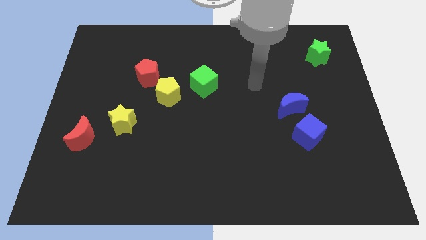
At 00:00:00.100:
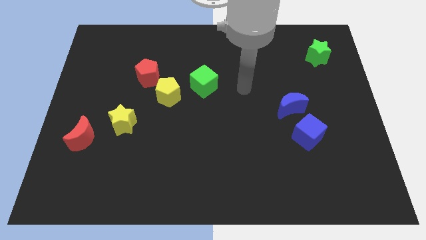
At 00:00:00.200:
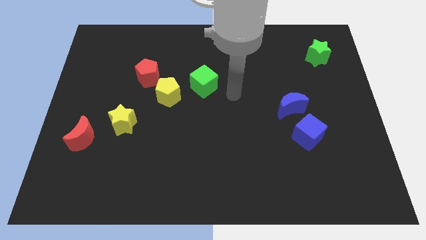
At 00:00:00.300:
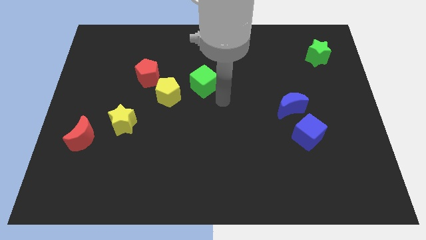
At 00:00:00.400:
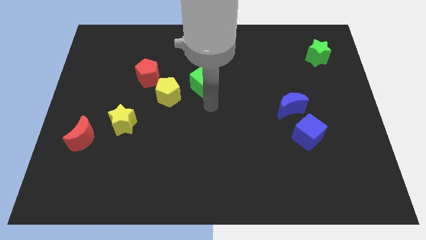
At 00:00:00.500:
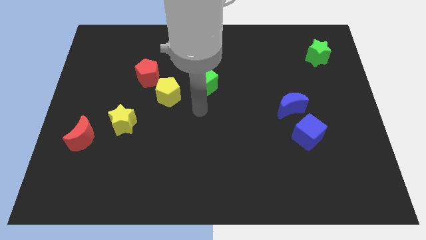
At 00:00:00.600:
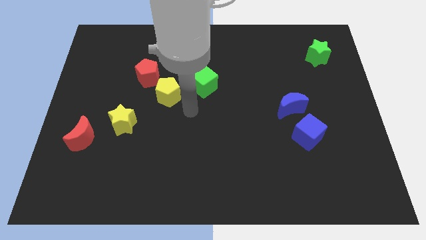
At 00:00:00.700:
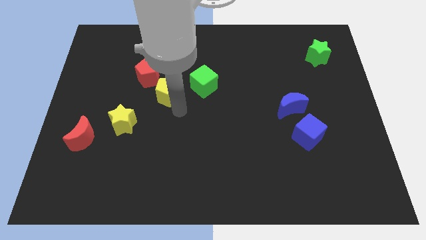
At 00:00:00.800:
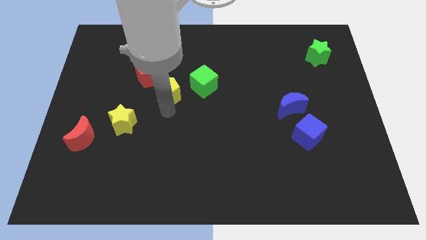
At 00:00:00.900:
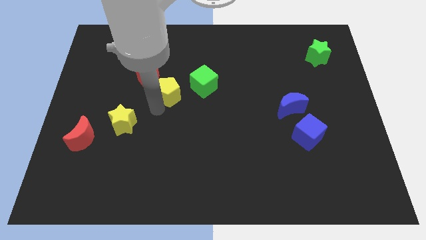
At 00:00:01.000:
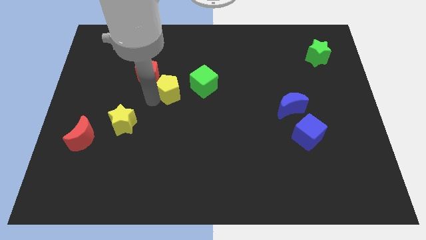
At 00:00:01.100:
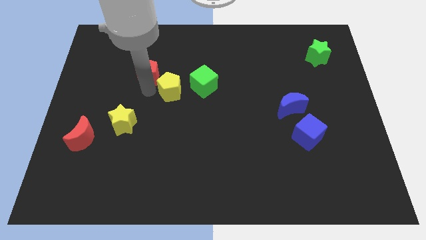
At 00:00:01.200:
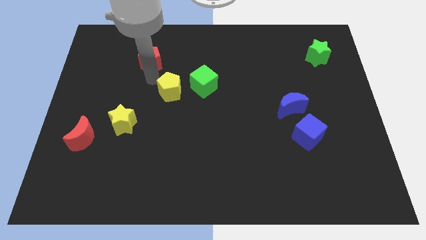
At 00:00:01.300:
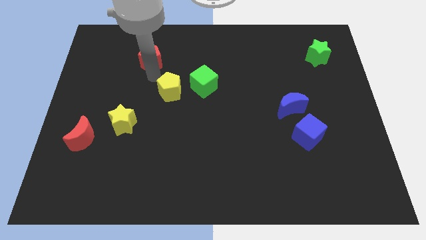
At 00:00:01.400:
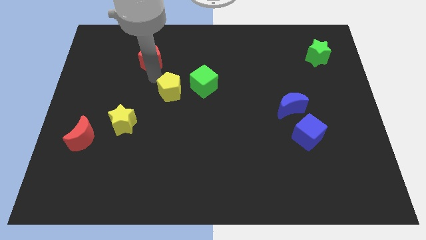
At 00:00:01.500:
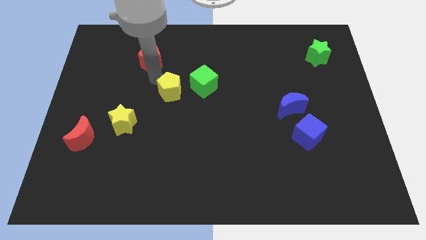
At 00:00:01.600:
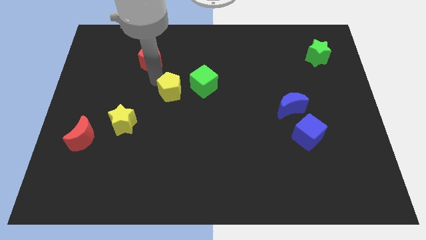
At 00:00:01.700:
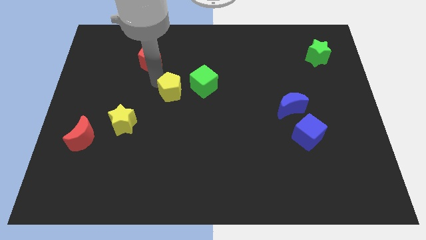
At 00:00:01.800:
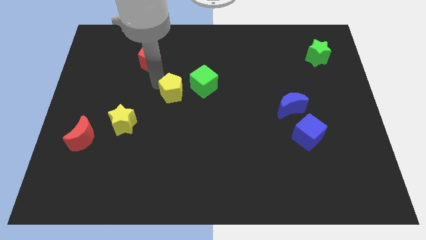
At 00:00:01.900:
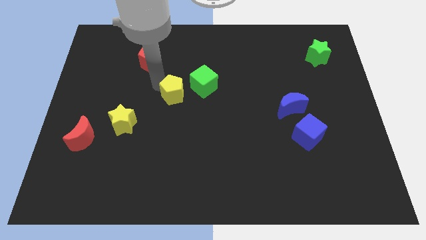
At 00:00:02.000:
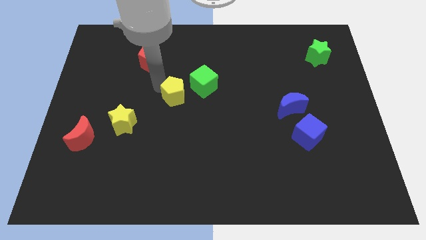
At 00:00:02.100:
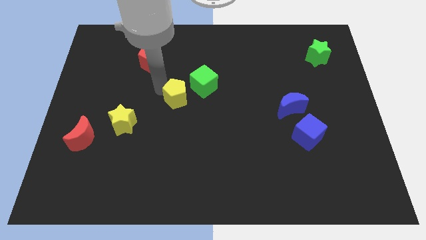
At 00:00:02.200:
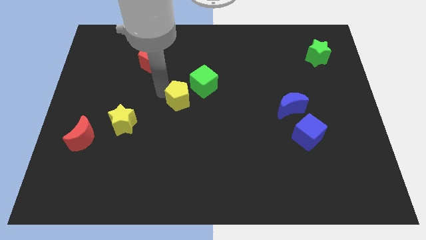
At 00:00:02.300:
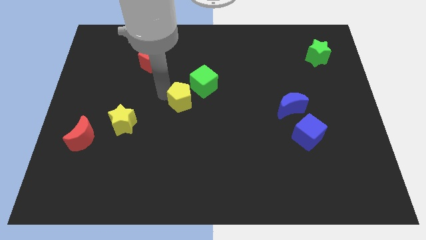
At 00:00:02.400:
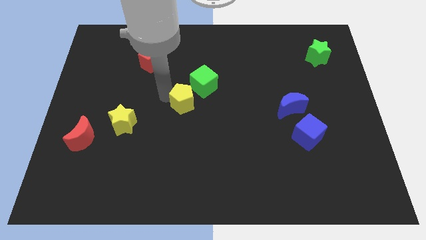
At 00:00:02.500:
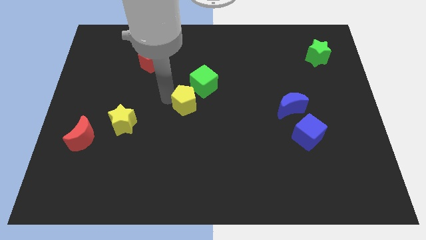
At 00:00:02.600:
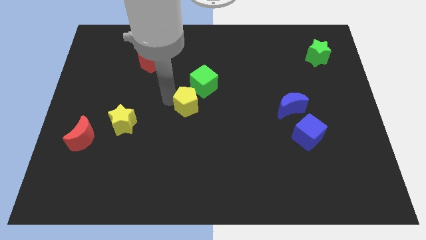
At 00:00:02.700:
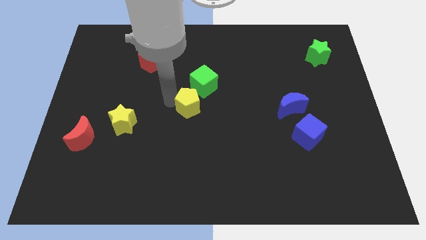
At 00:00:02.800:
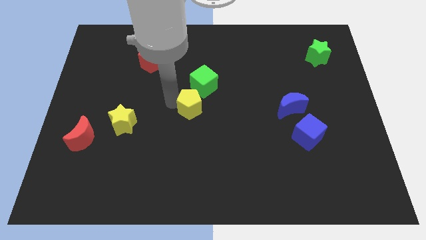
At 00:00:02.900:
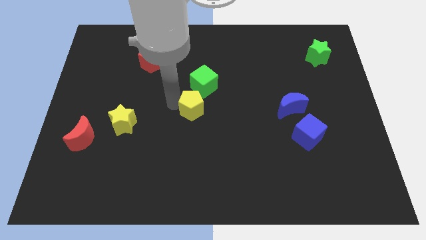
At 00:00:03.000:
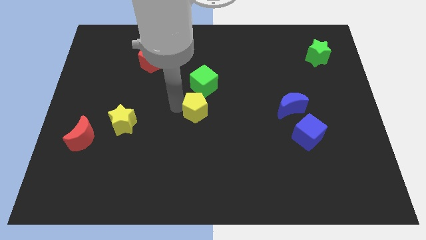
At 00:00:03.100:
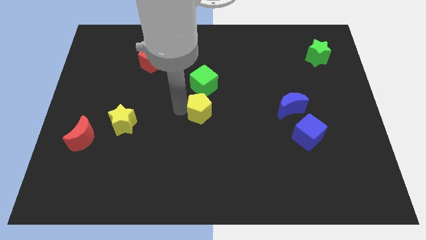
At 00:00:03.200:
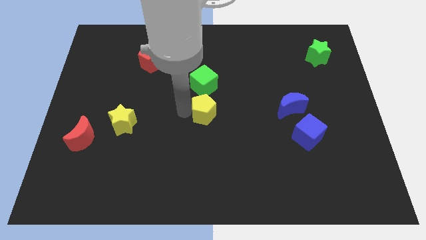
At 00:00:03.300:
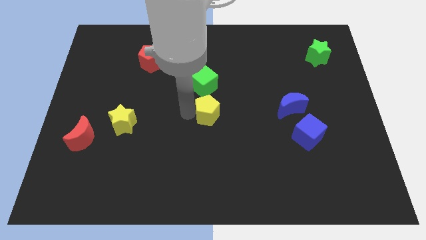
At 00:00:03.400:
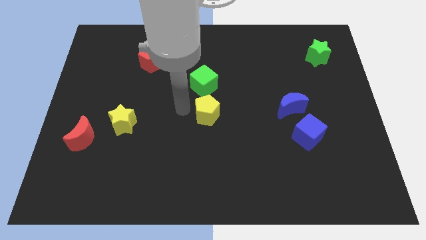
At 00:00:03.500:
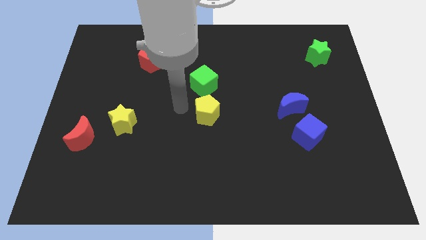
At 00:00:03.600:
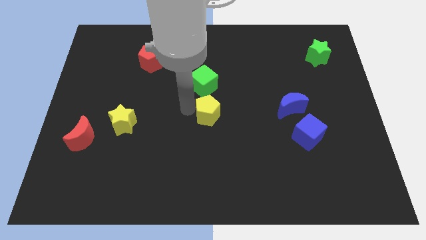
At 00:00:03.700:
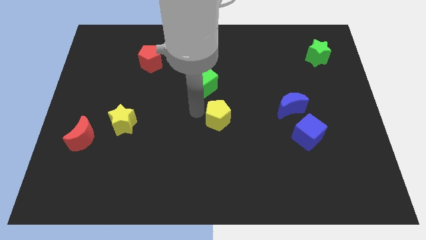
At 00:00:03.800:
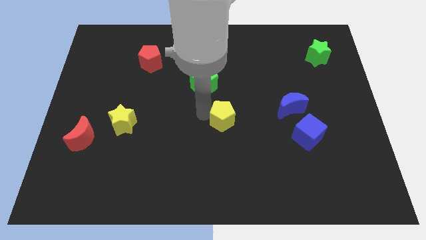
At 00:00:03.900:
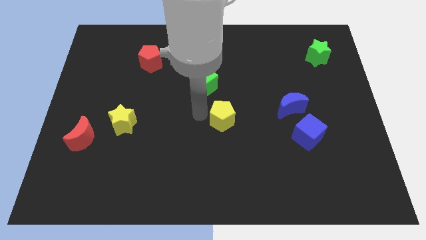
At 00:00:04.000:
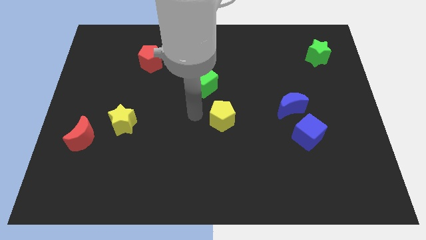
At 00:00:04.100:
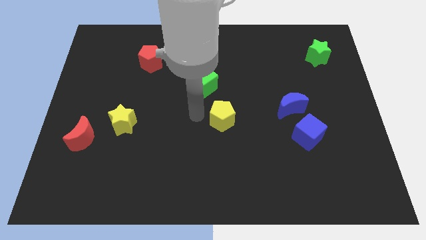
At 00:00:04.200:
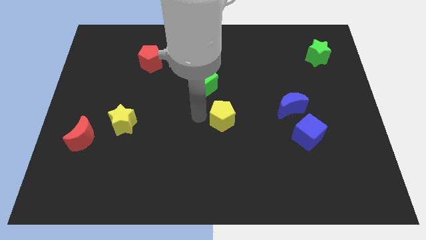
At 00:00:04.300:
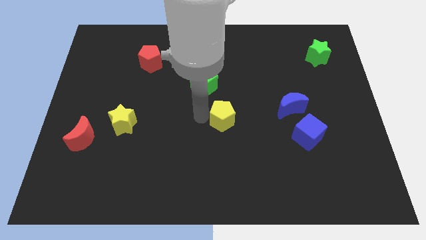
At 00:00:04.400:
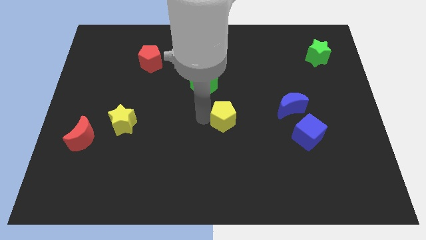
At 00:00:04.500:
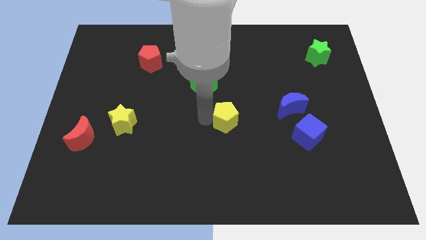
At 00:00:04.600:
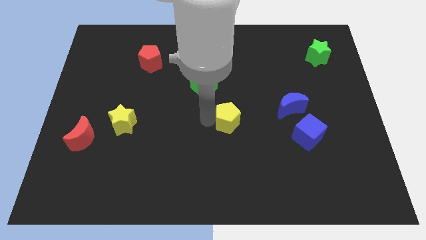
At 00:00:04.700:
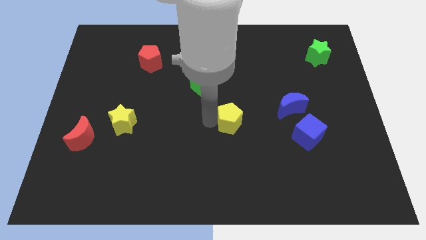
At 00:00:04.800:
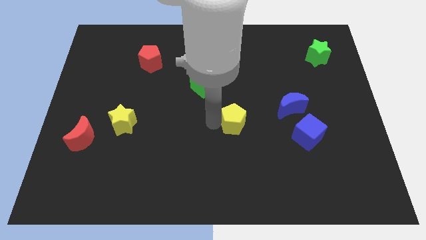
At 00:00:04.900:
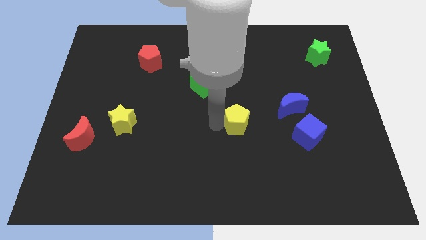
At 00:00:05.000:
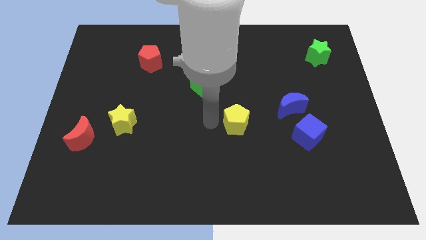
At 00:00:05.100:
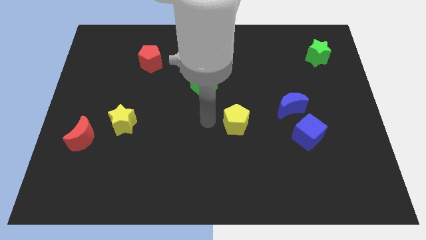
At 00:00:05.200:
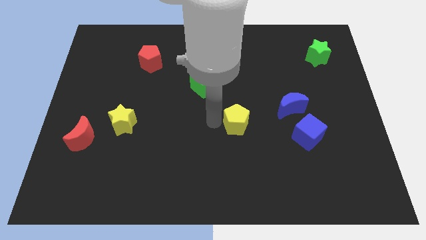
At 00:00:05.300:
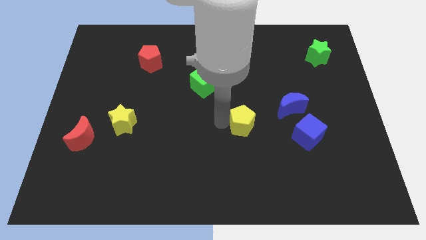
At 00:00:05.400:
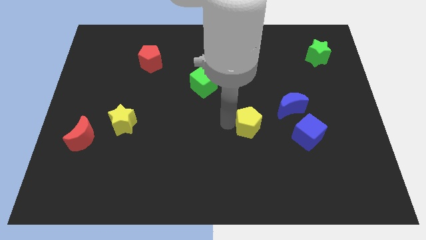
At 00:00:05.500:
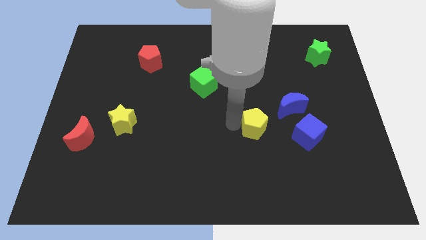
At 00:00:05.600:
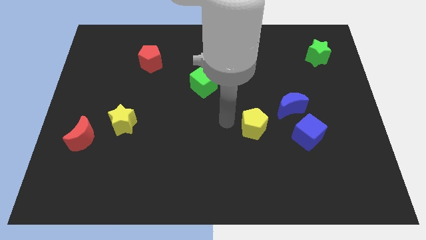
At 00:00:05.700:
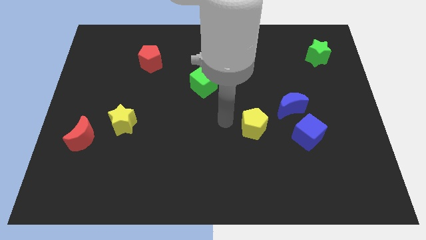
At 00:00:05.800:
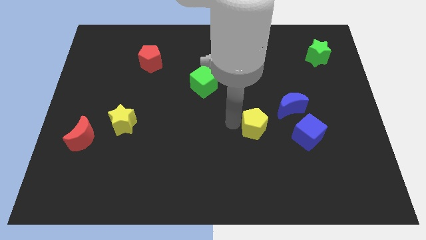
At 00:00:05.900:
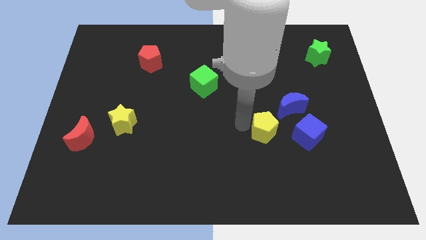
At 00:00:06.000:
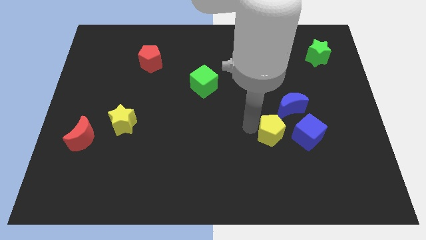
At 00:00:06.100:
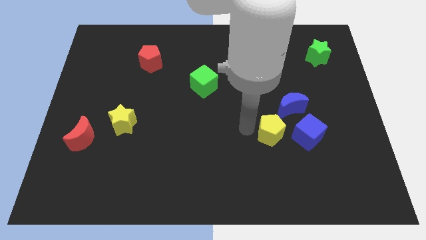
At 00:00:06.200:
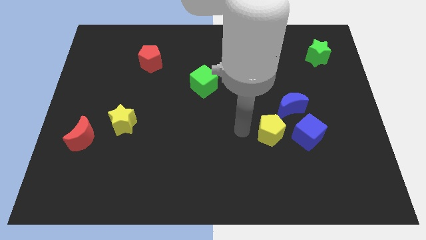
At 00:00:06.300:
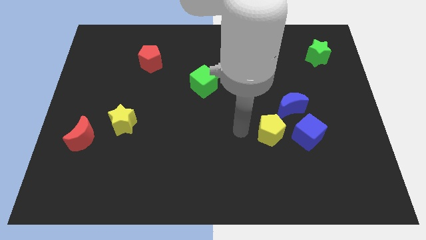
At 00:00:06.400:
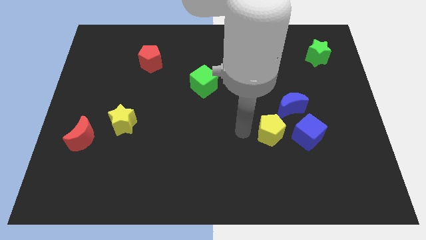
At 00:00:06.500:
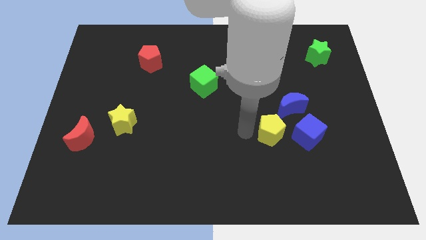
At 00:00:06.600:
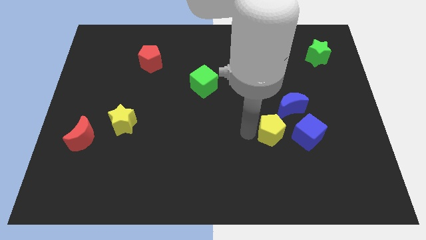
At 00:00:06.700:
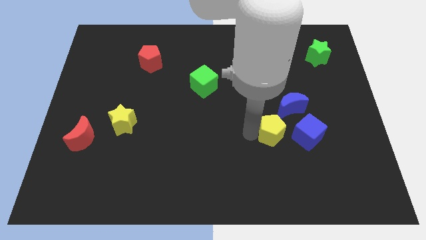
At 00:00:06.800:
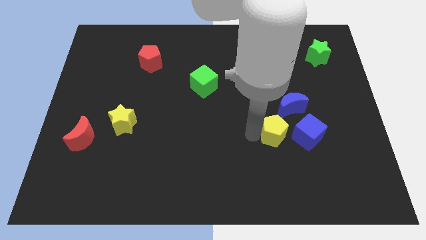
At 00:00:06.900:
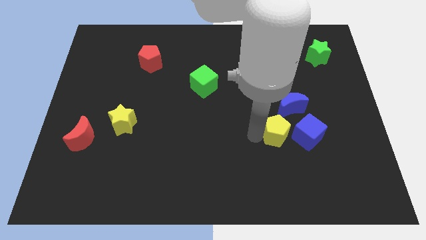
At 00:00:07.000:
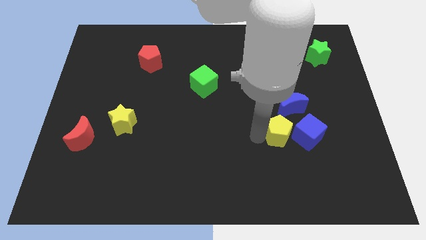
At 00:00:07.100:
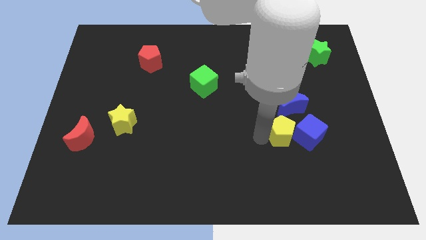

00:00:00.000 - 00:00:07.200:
slide the yellow pentagon next to the blue cube
